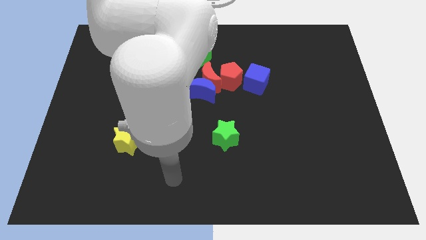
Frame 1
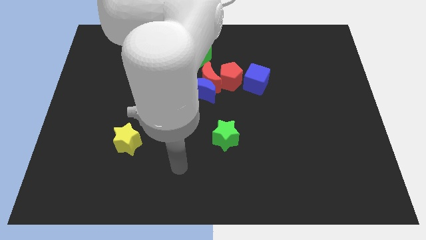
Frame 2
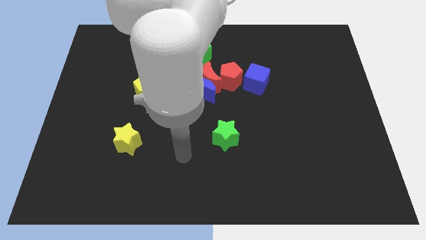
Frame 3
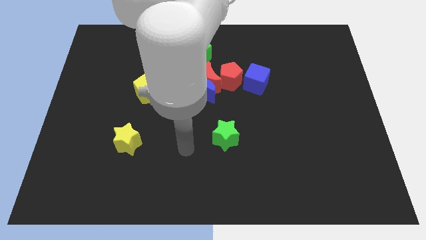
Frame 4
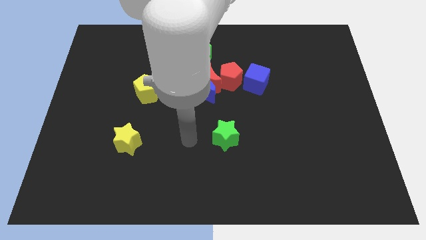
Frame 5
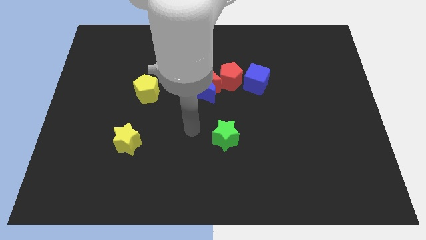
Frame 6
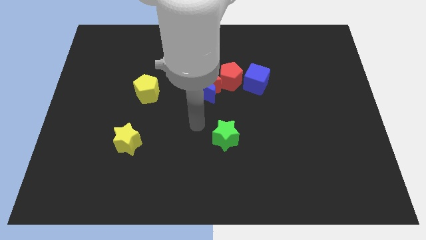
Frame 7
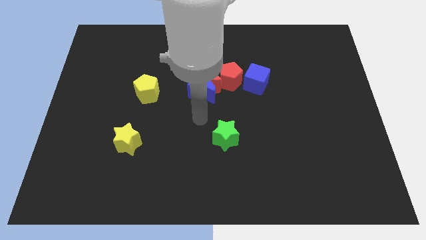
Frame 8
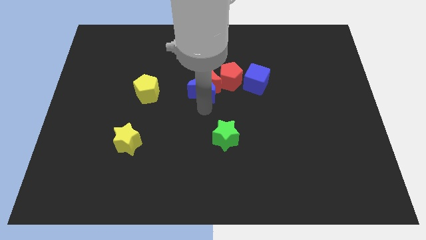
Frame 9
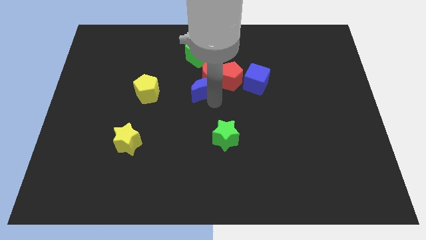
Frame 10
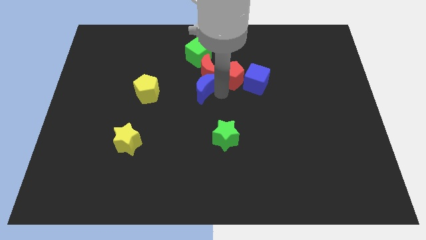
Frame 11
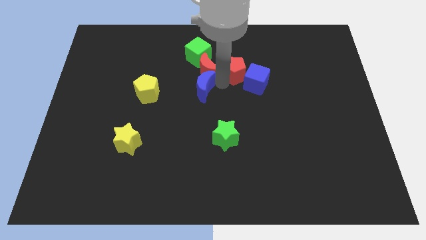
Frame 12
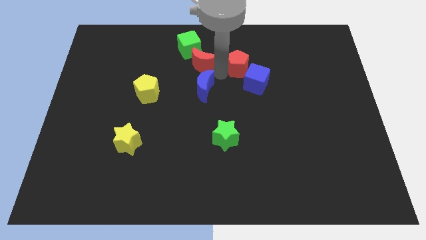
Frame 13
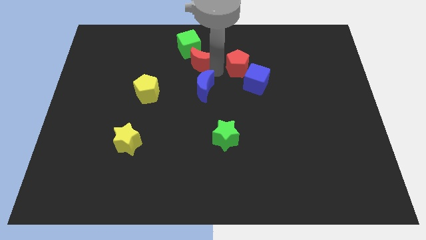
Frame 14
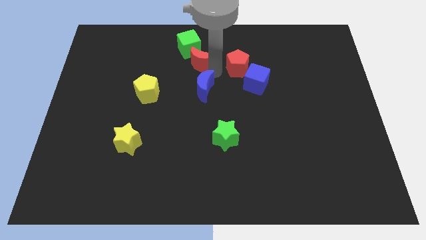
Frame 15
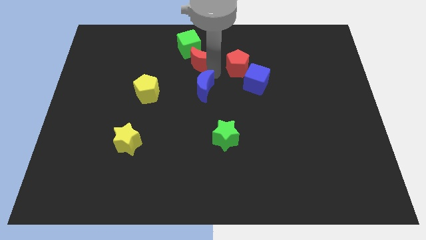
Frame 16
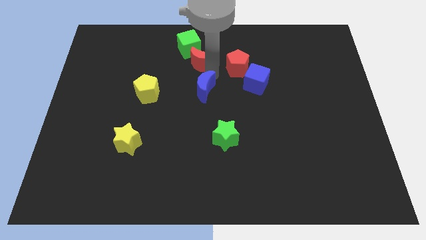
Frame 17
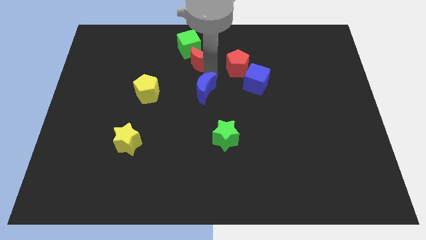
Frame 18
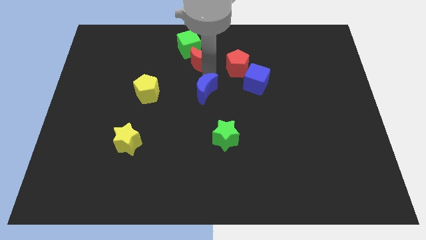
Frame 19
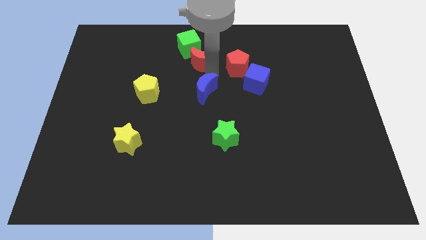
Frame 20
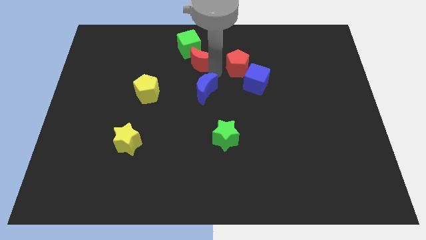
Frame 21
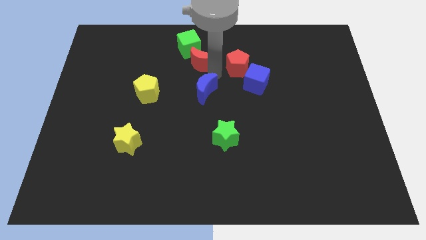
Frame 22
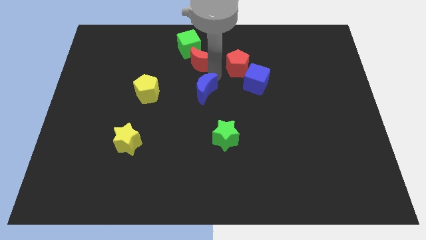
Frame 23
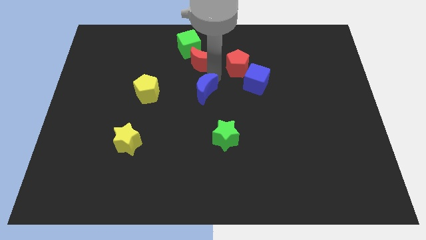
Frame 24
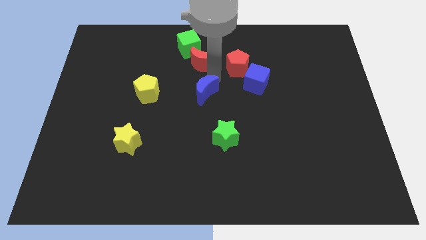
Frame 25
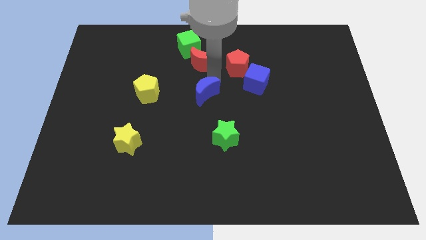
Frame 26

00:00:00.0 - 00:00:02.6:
pull the blue moon apart from the red moon and red pentagon

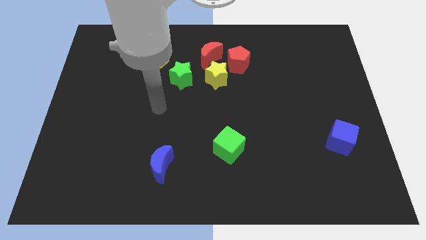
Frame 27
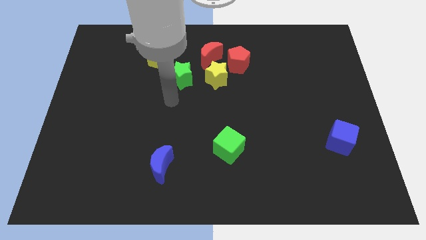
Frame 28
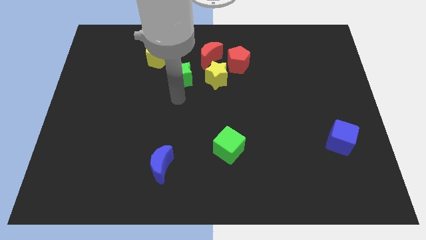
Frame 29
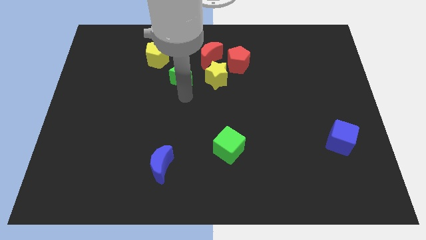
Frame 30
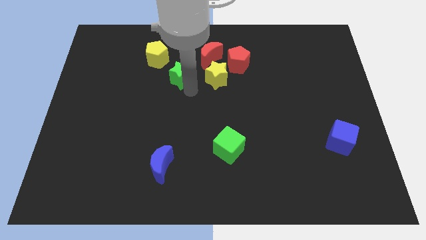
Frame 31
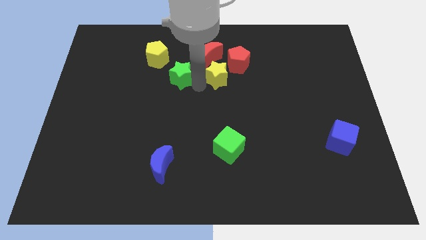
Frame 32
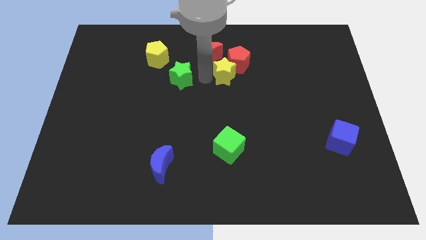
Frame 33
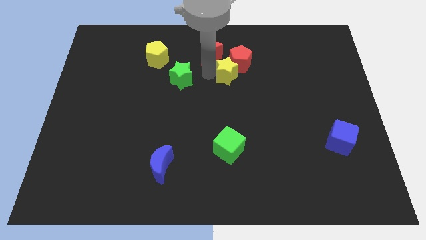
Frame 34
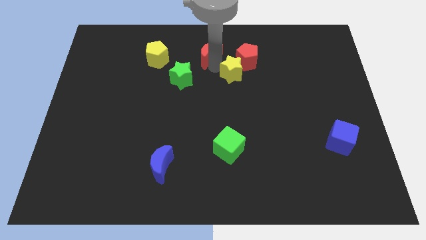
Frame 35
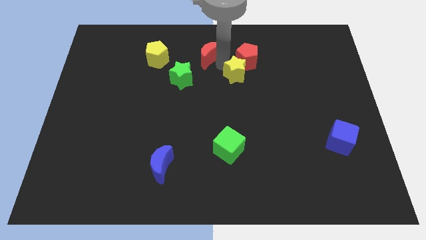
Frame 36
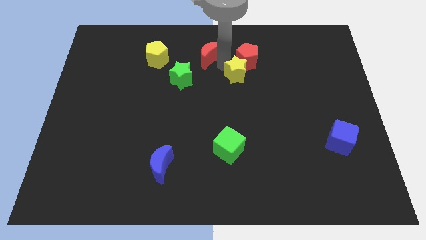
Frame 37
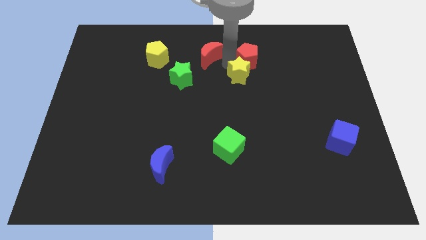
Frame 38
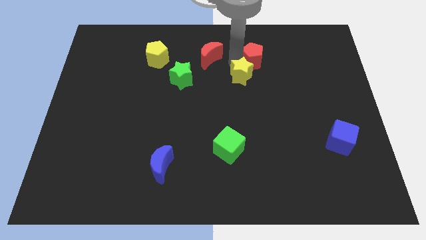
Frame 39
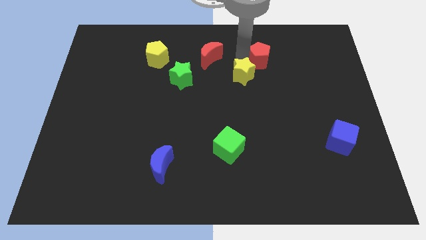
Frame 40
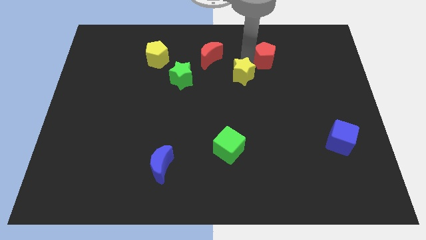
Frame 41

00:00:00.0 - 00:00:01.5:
separate the red pentagon from the yellow star and red moon

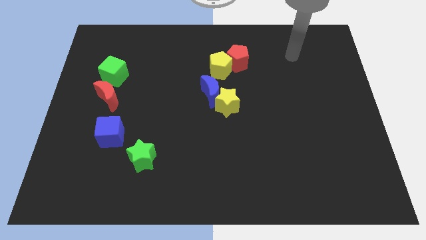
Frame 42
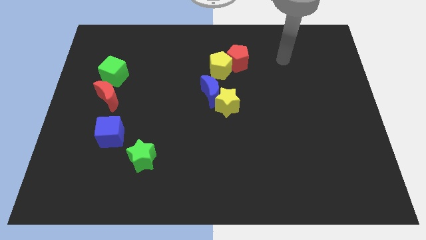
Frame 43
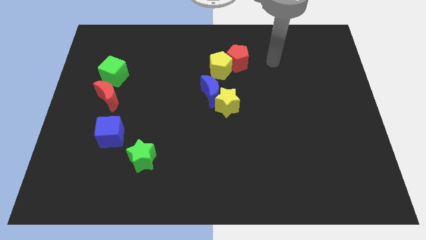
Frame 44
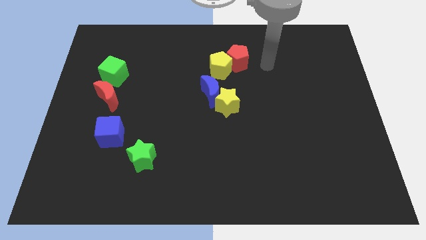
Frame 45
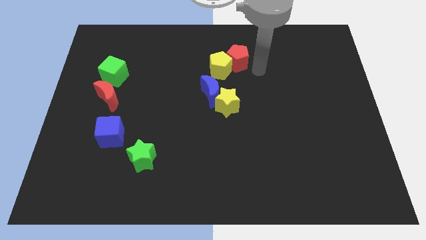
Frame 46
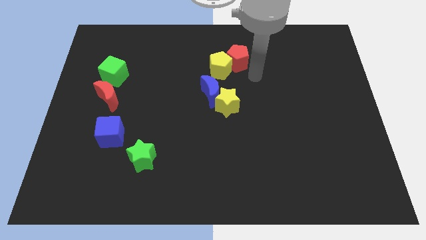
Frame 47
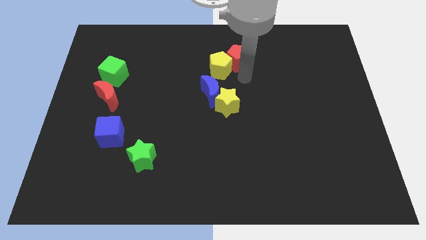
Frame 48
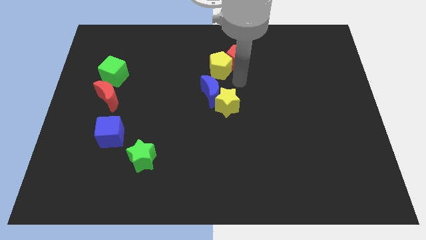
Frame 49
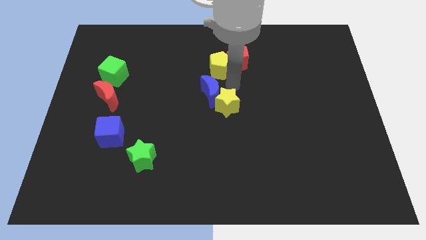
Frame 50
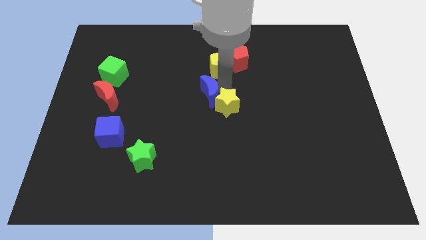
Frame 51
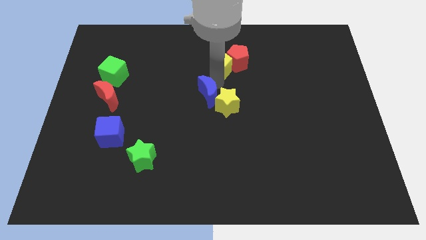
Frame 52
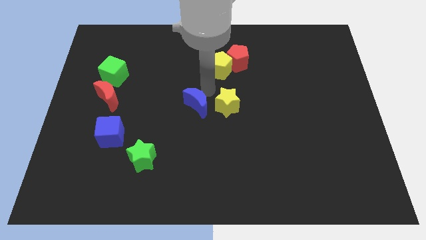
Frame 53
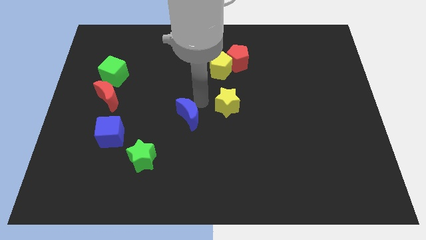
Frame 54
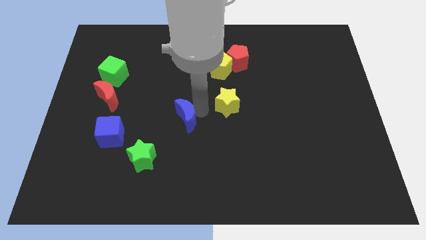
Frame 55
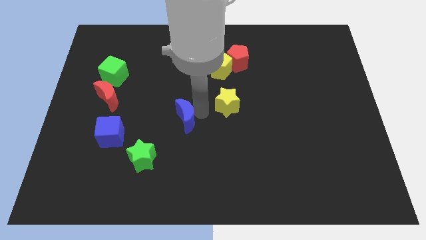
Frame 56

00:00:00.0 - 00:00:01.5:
pull the yellow star apart from the blue moon

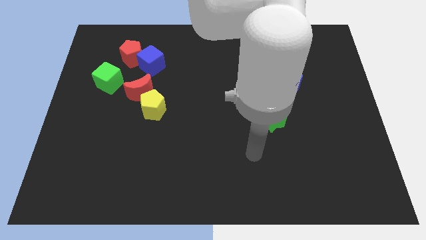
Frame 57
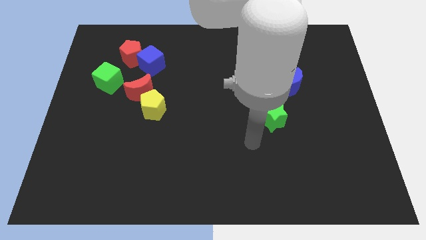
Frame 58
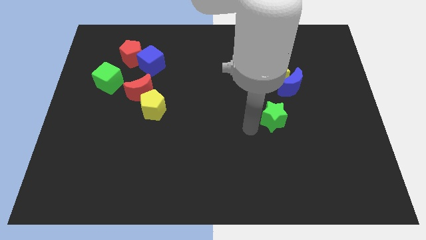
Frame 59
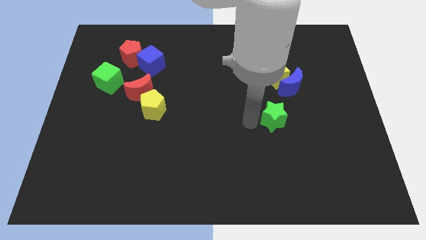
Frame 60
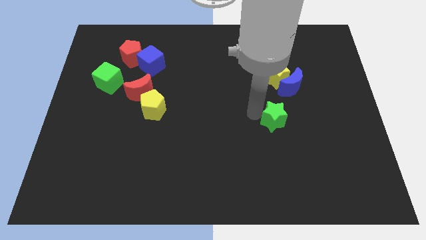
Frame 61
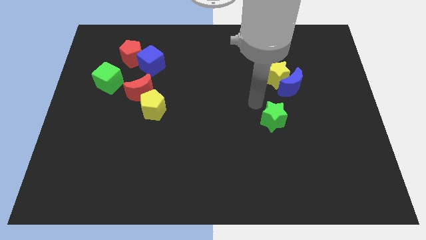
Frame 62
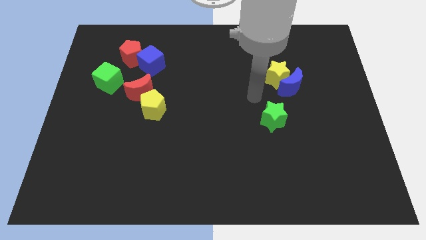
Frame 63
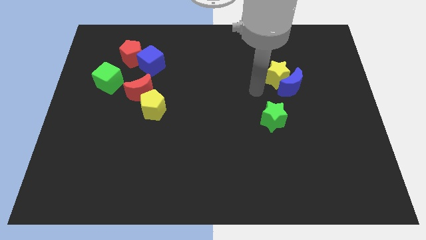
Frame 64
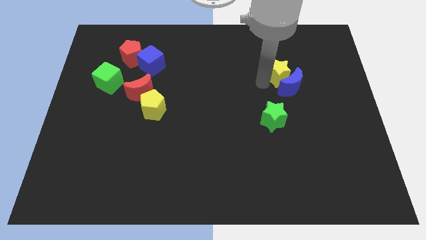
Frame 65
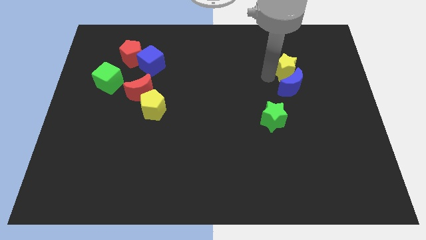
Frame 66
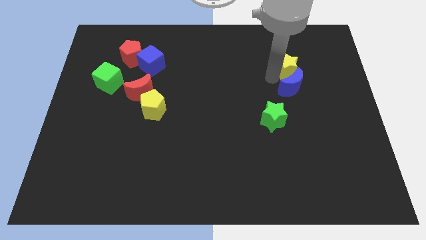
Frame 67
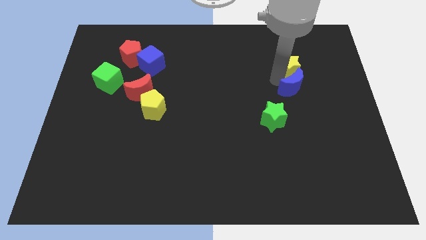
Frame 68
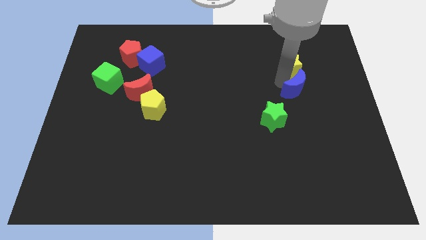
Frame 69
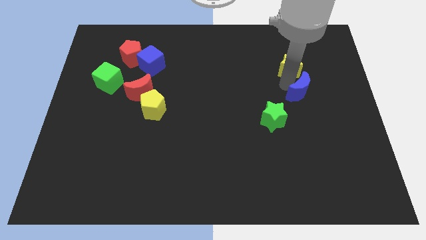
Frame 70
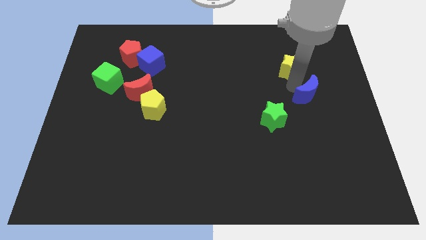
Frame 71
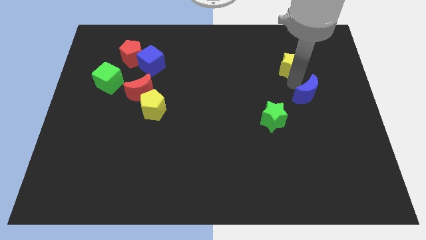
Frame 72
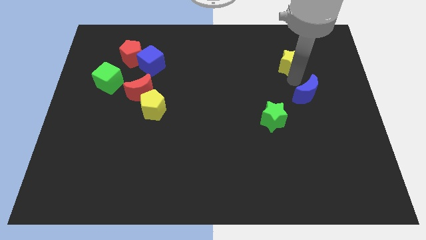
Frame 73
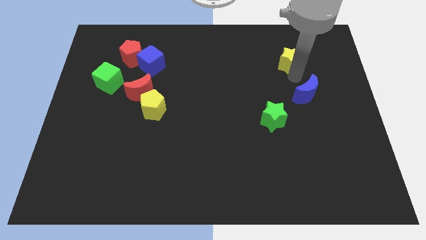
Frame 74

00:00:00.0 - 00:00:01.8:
separate the blue moon from the yellow star

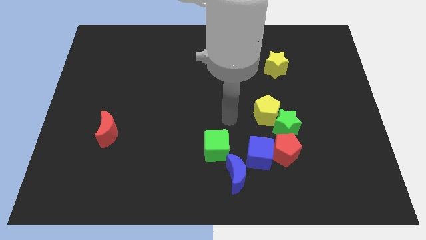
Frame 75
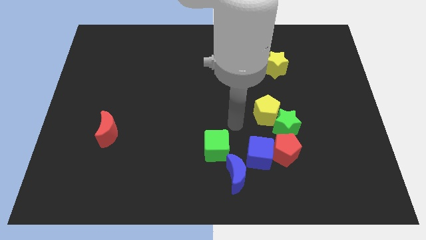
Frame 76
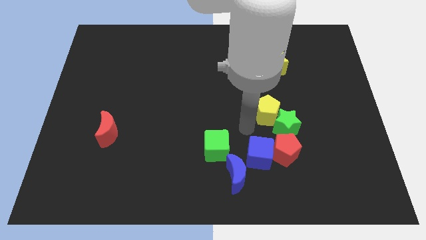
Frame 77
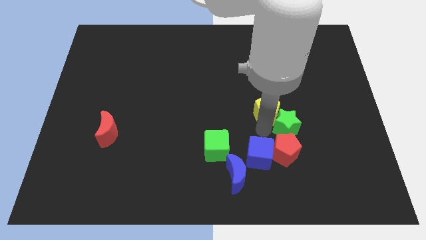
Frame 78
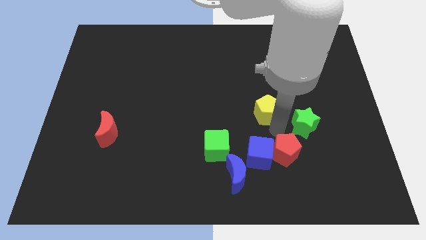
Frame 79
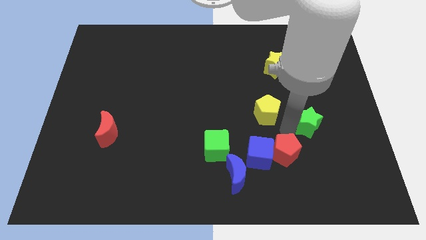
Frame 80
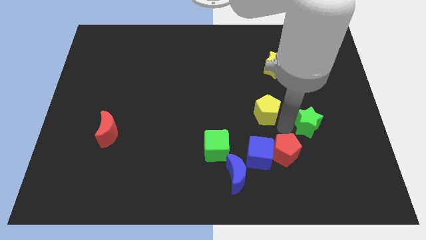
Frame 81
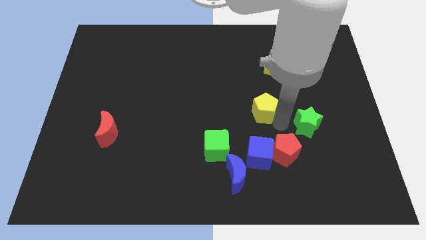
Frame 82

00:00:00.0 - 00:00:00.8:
pull the yellow pentagon apart from the green star

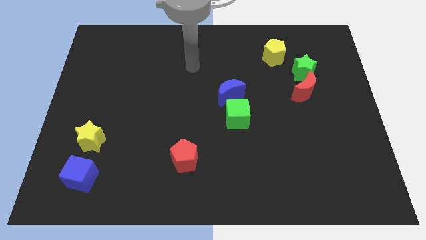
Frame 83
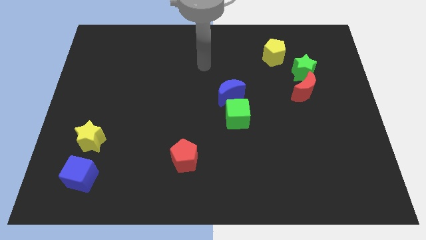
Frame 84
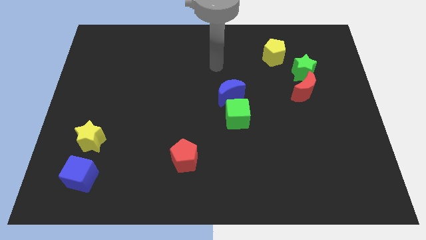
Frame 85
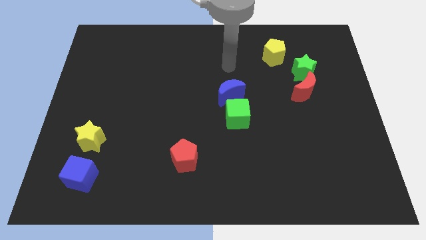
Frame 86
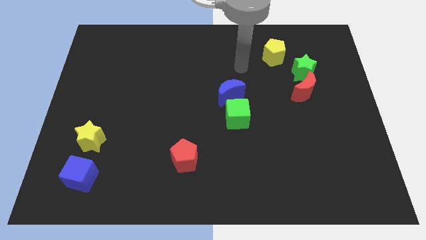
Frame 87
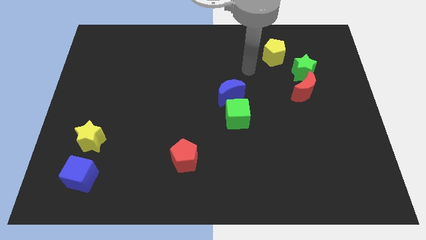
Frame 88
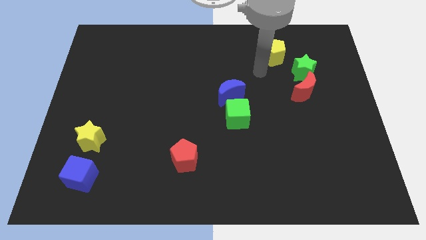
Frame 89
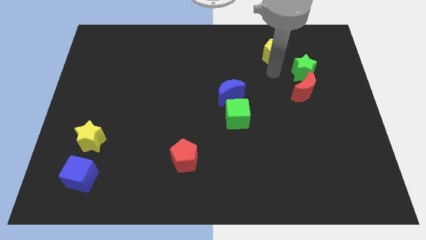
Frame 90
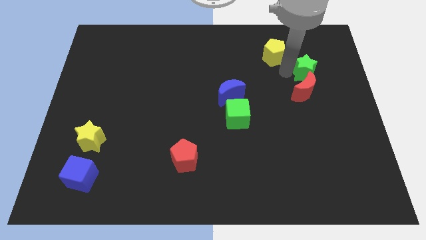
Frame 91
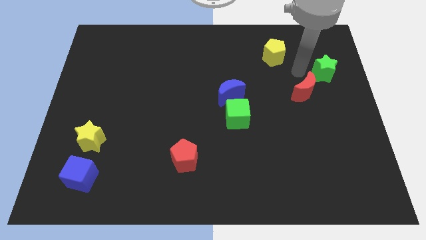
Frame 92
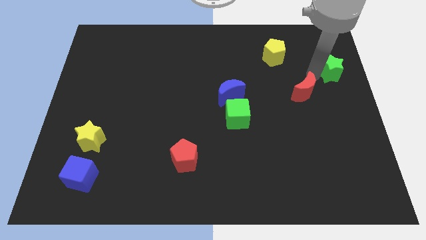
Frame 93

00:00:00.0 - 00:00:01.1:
separate the red moon from the green star
